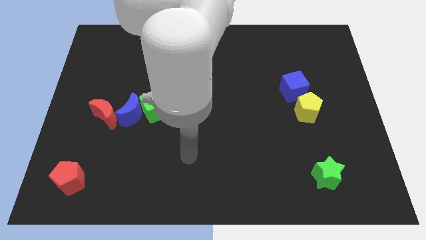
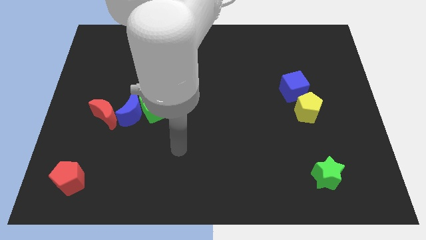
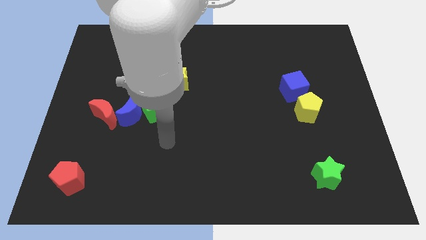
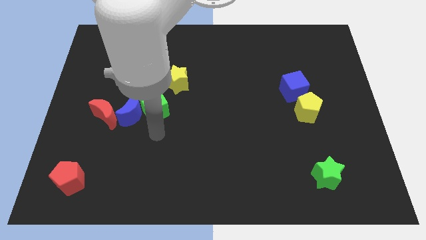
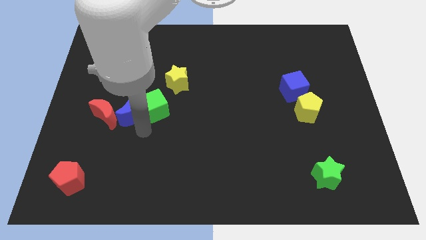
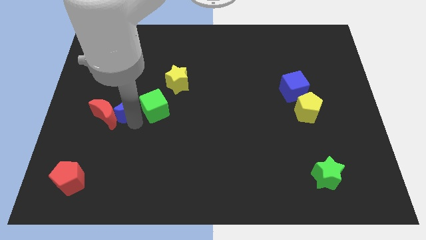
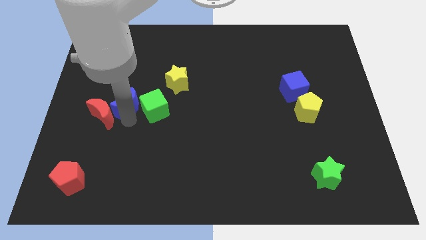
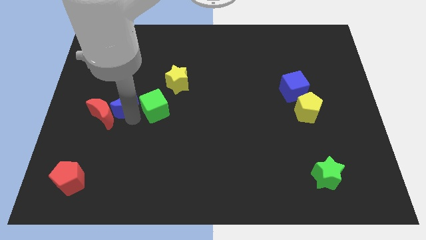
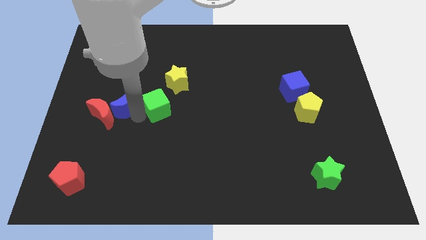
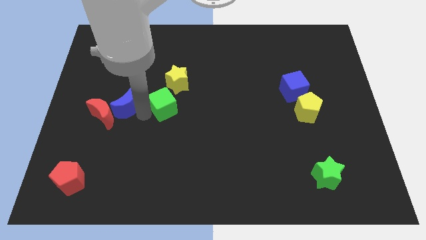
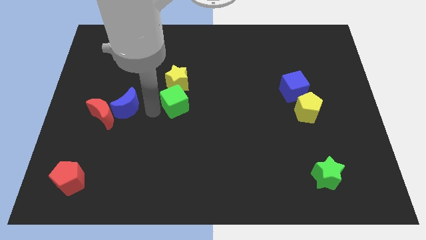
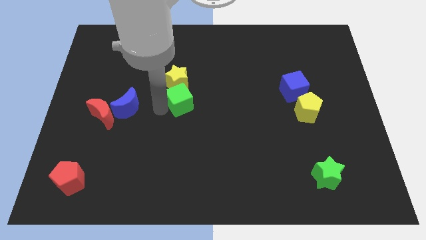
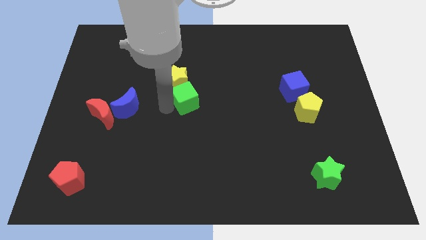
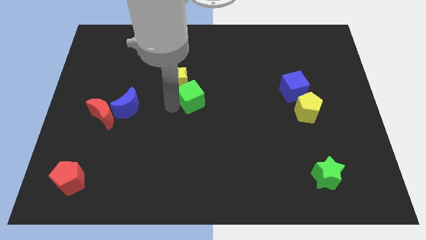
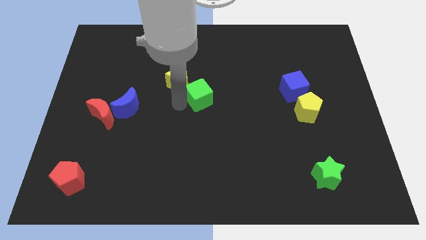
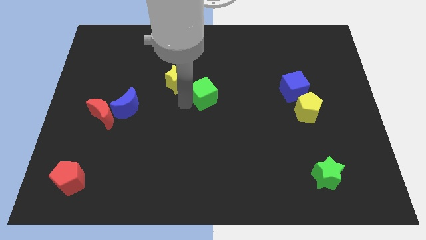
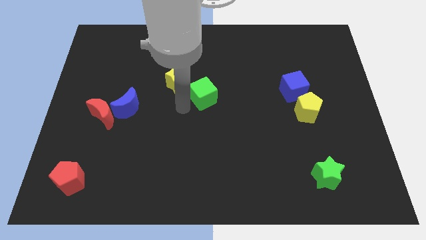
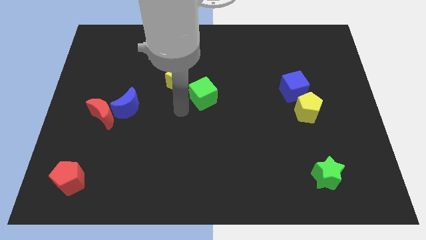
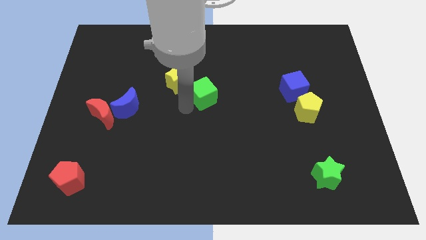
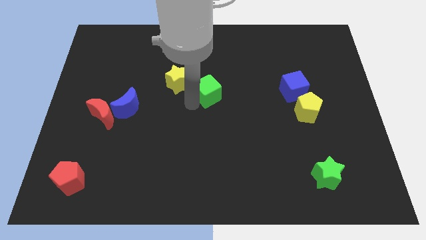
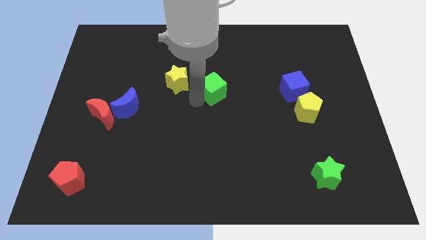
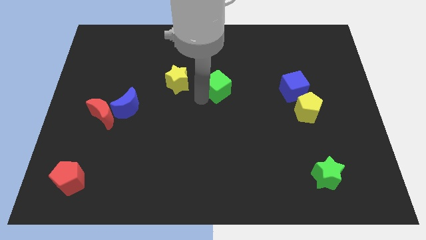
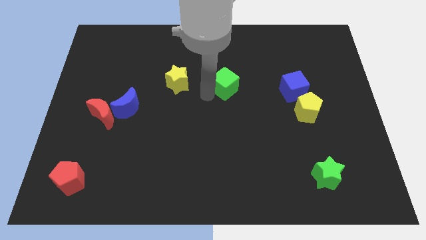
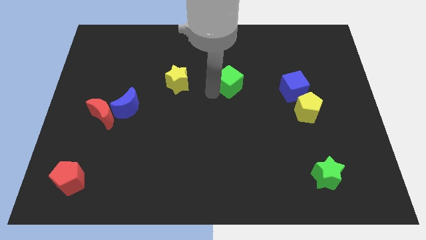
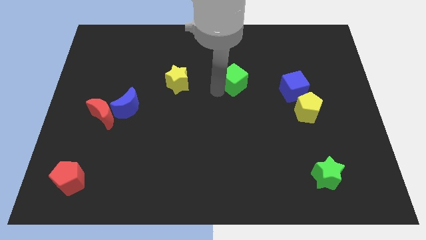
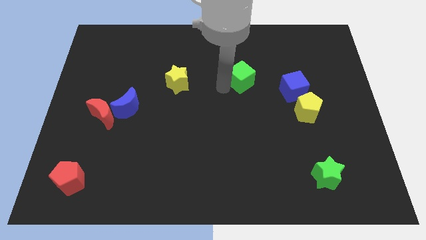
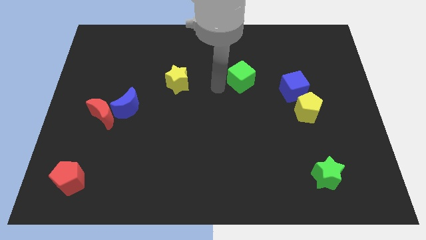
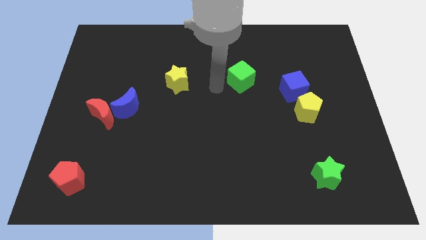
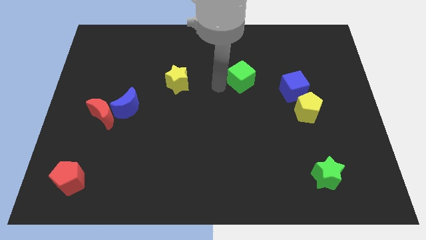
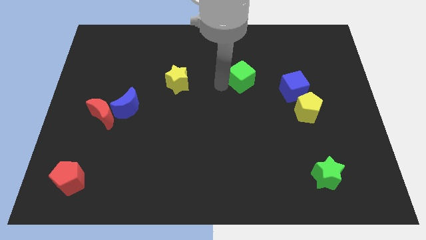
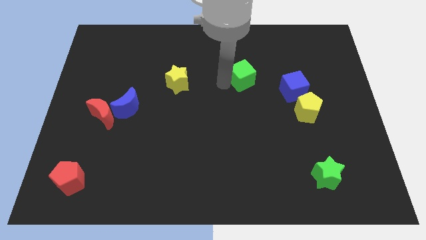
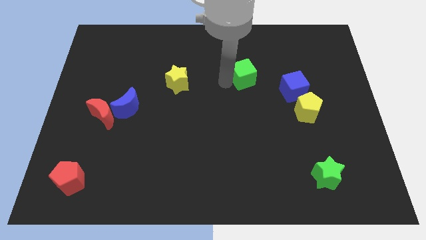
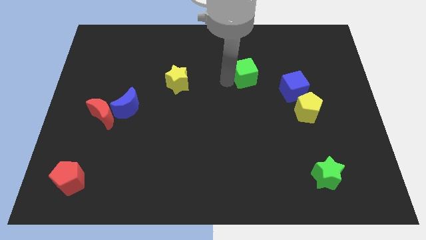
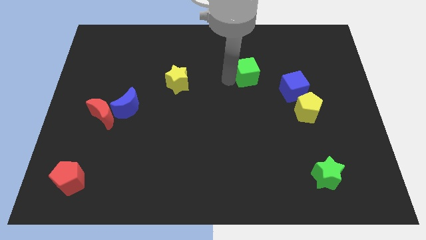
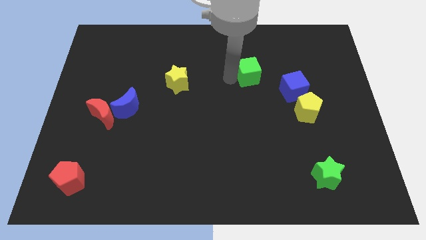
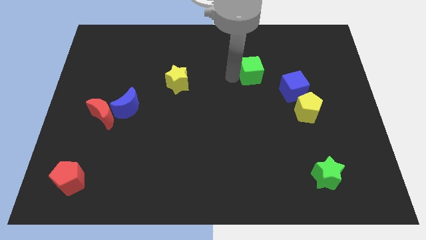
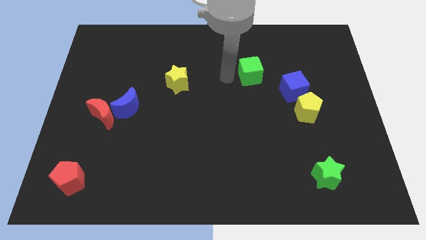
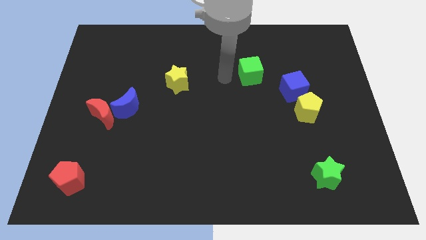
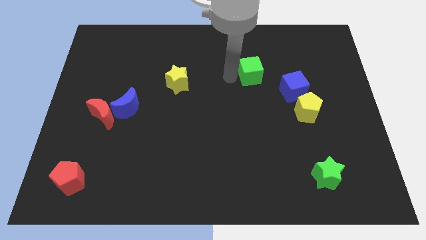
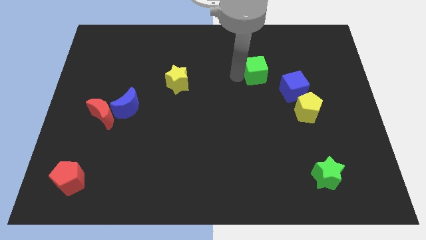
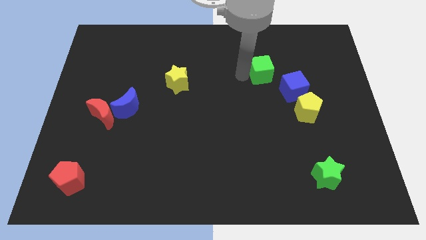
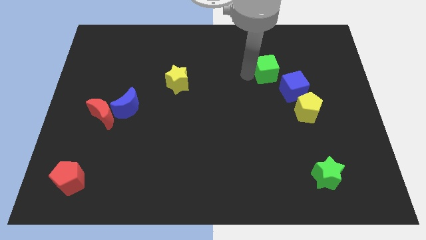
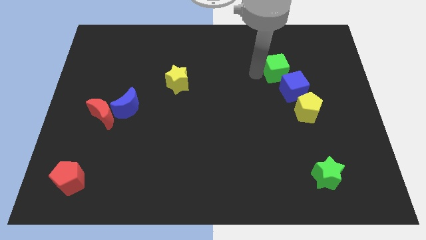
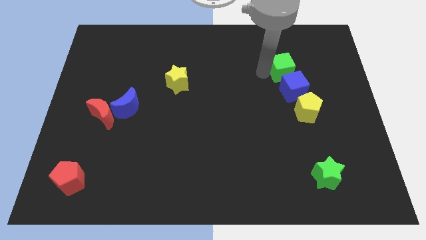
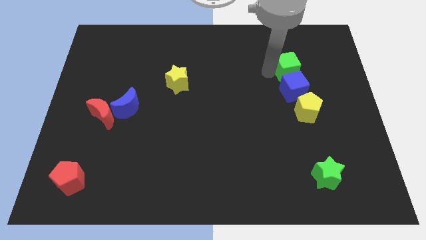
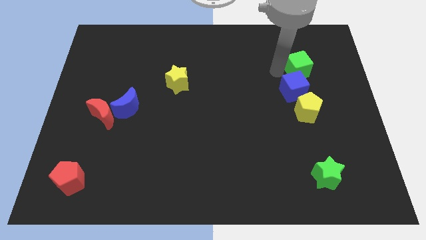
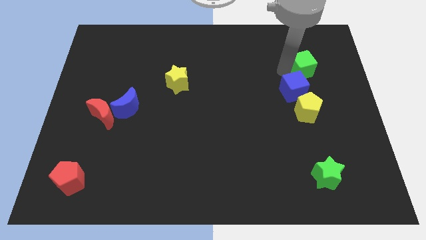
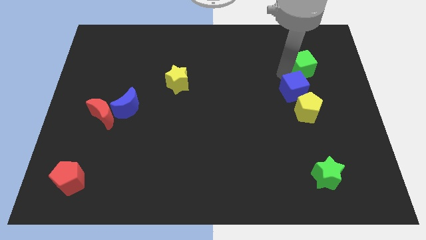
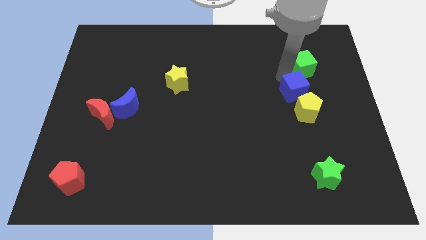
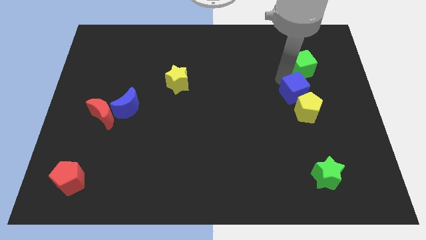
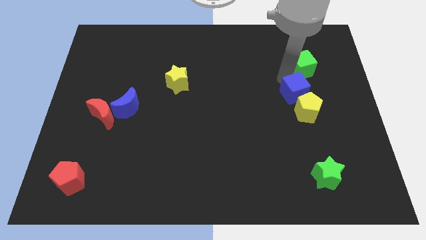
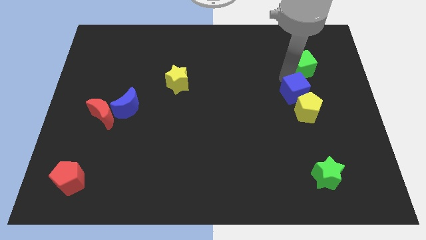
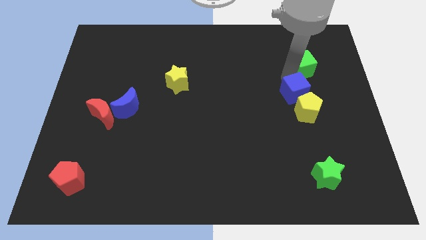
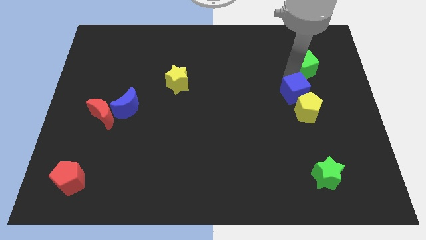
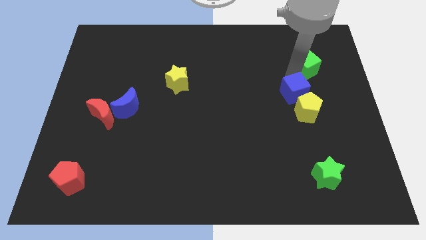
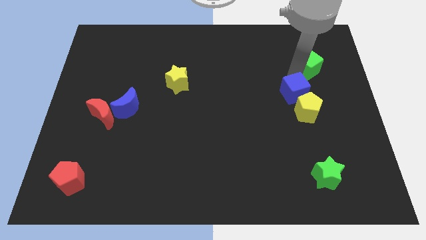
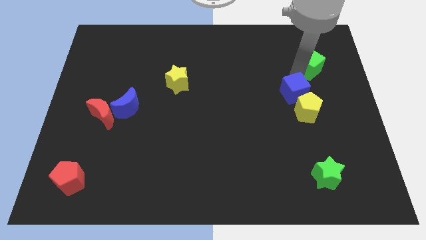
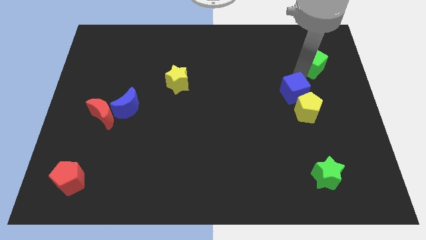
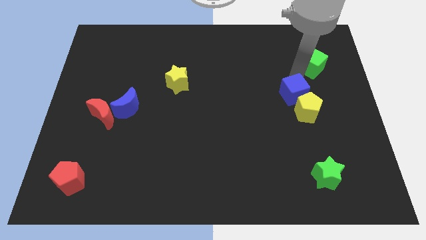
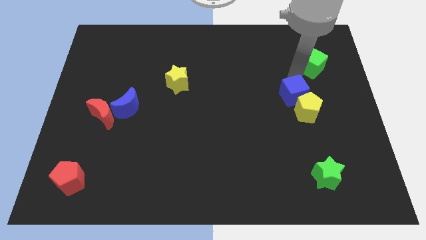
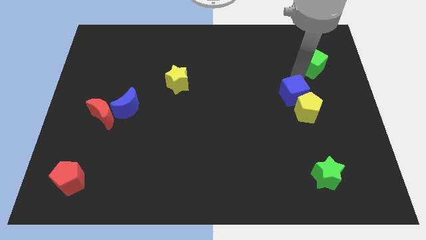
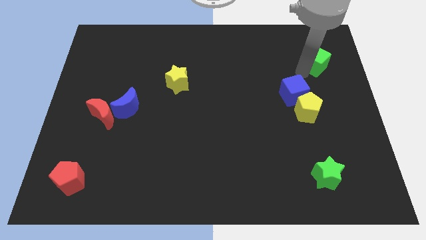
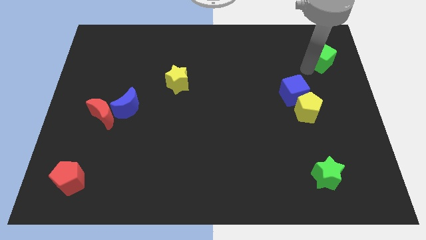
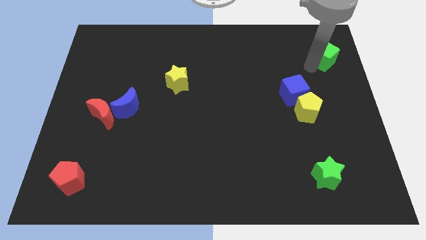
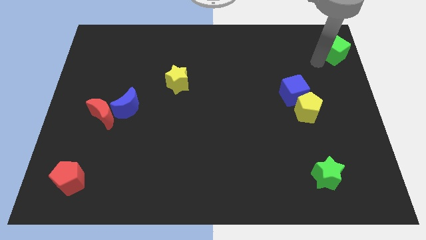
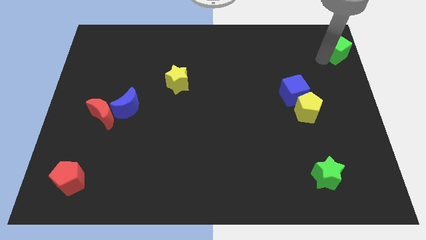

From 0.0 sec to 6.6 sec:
put the green cube to the top right
